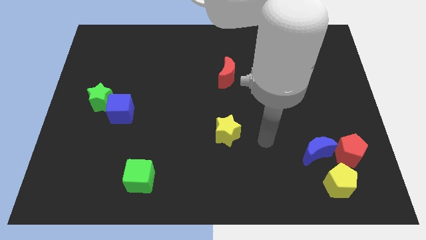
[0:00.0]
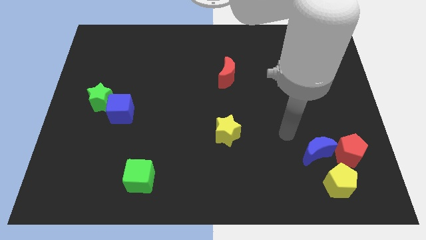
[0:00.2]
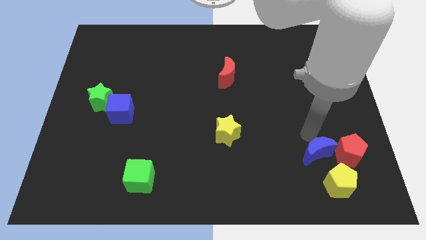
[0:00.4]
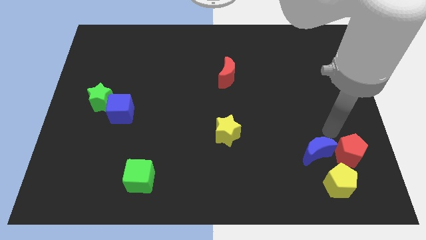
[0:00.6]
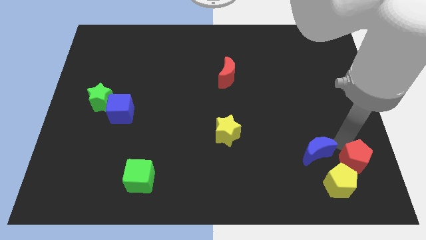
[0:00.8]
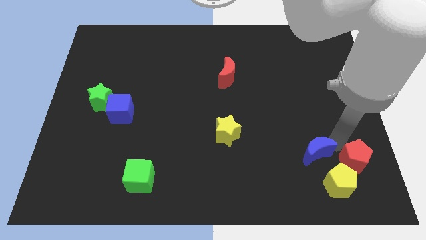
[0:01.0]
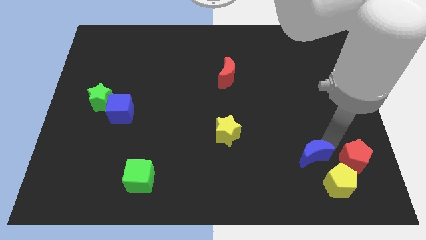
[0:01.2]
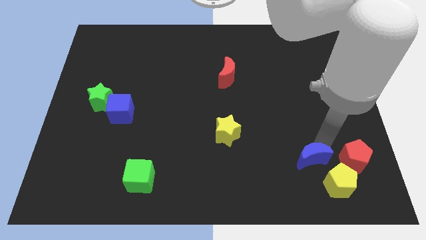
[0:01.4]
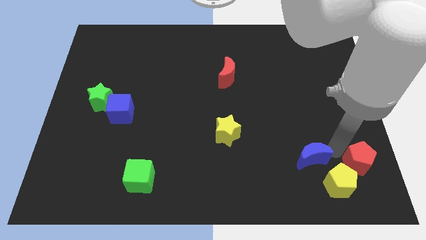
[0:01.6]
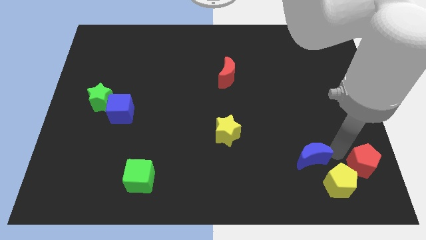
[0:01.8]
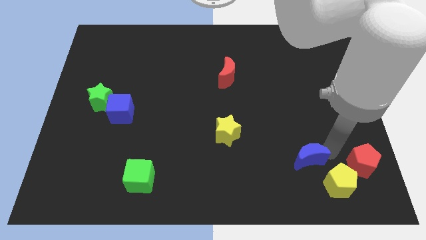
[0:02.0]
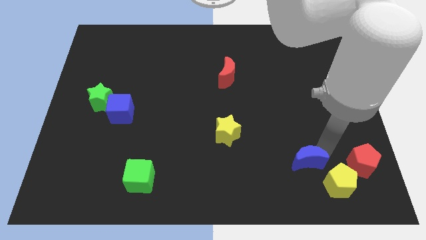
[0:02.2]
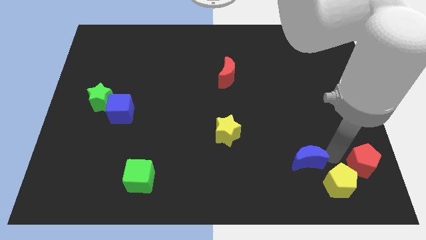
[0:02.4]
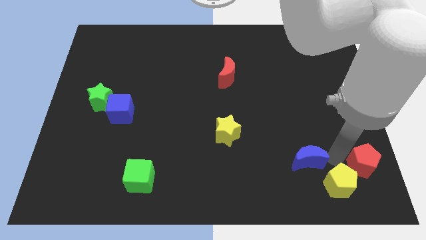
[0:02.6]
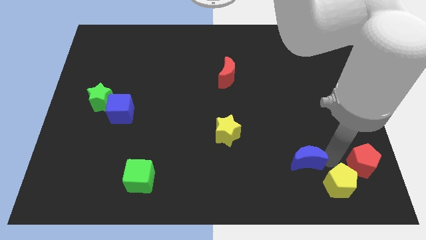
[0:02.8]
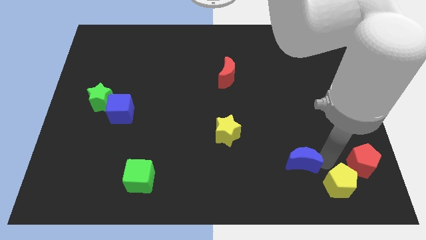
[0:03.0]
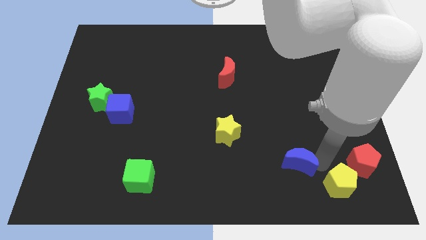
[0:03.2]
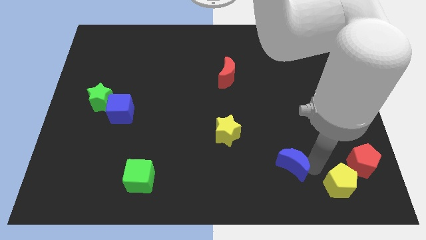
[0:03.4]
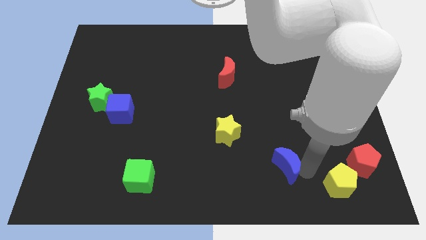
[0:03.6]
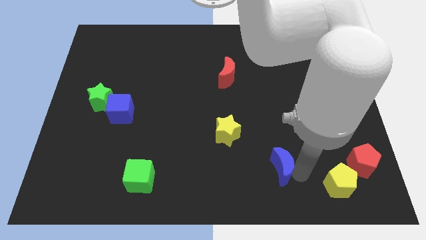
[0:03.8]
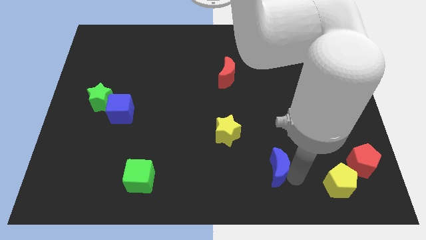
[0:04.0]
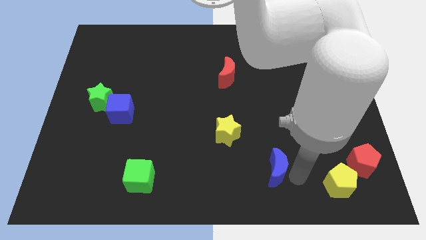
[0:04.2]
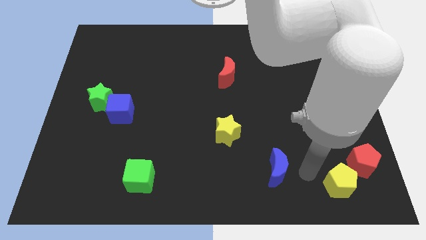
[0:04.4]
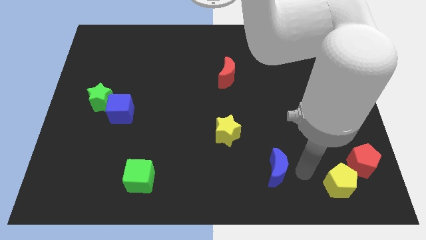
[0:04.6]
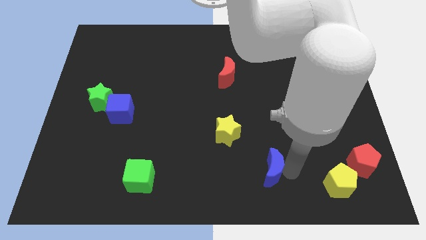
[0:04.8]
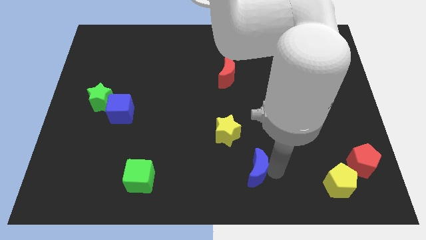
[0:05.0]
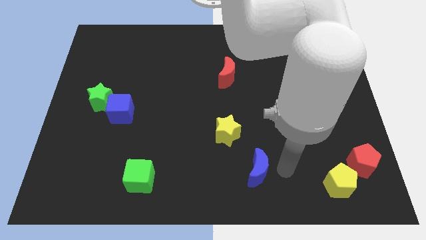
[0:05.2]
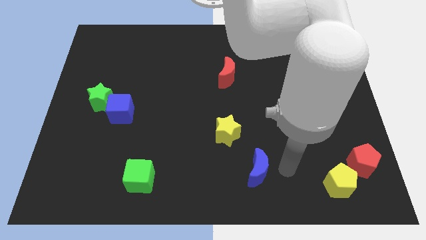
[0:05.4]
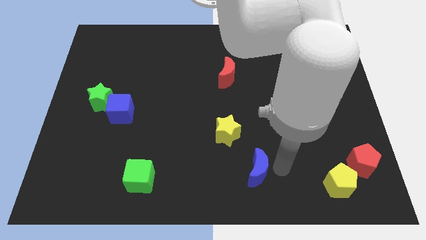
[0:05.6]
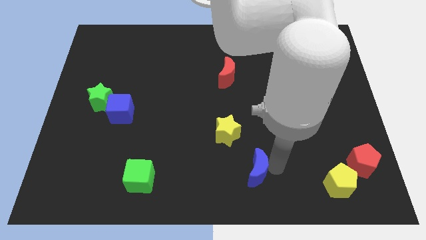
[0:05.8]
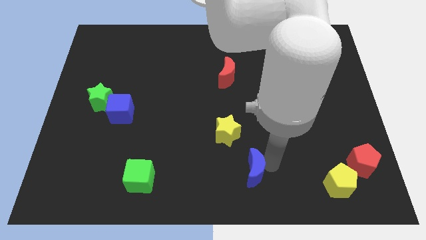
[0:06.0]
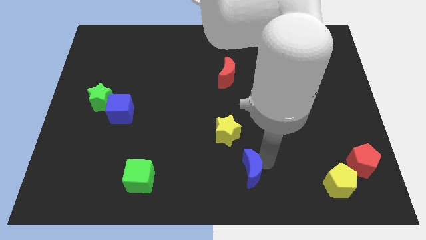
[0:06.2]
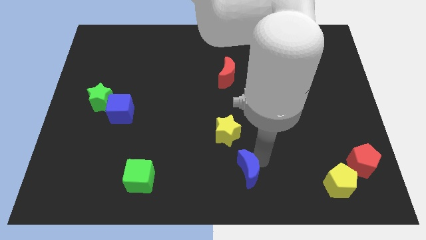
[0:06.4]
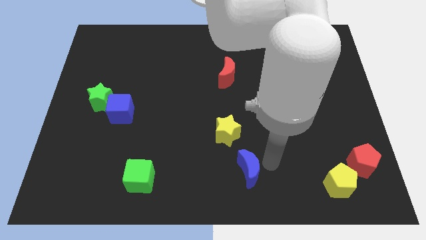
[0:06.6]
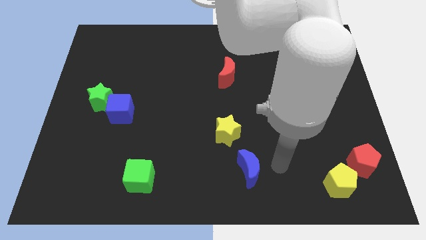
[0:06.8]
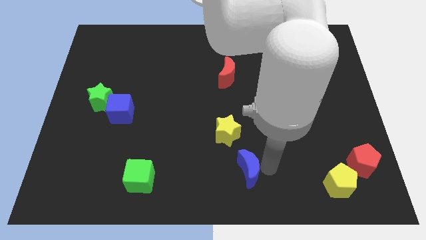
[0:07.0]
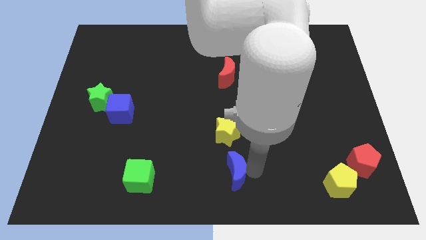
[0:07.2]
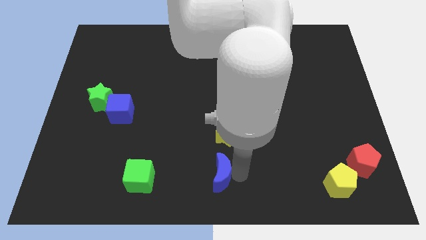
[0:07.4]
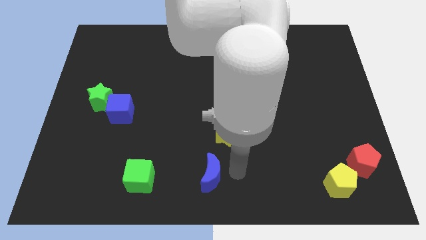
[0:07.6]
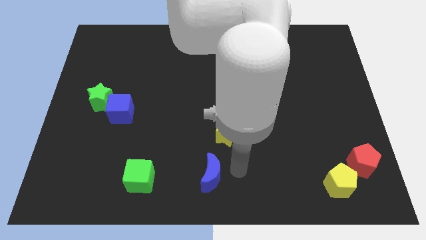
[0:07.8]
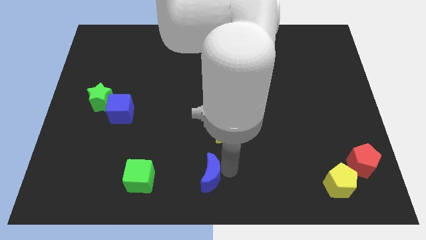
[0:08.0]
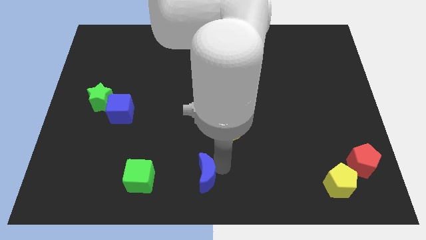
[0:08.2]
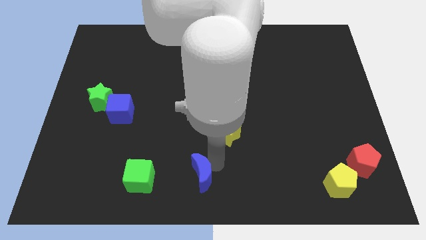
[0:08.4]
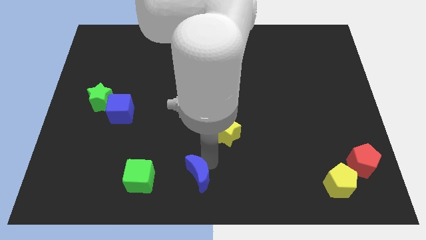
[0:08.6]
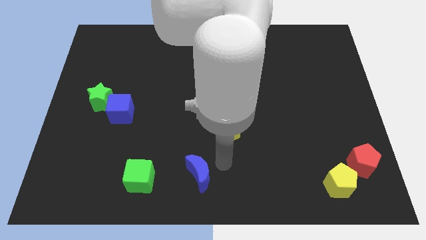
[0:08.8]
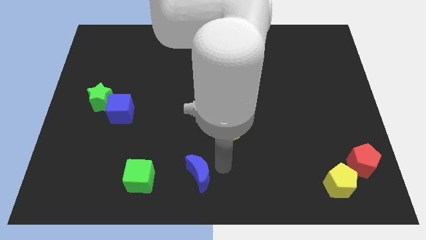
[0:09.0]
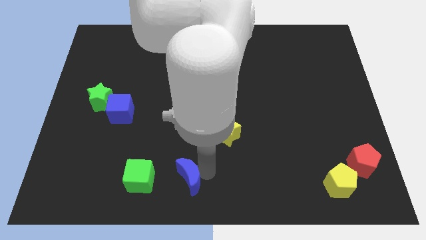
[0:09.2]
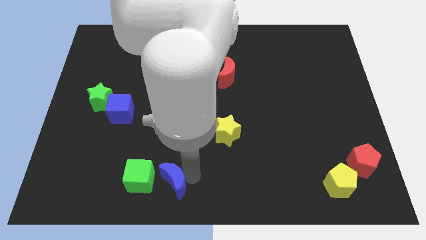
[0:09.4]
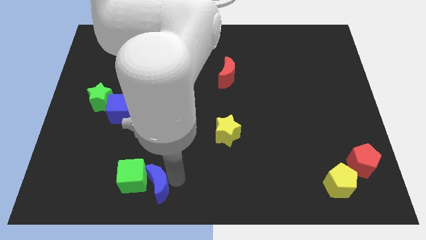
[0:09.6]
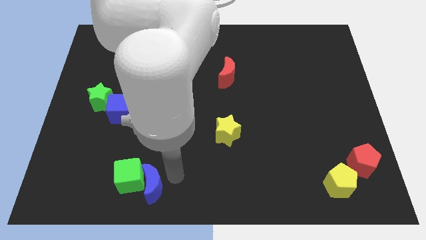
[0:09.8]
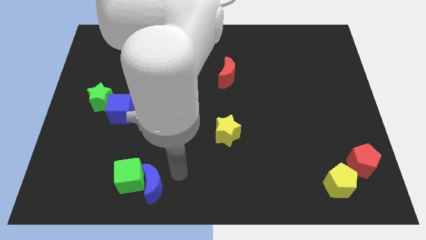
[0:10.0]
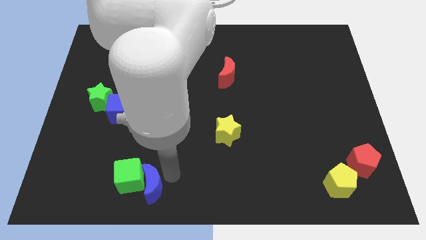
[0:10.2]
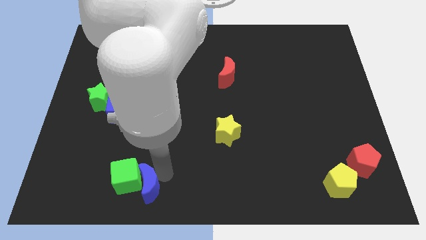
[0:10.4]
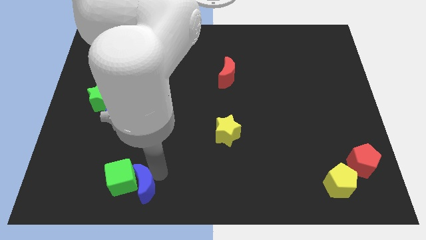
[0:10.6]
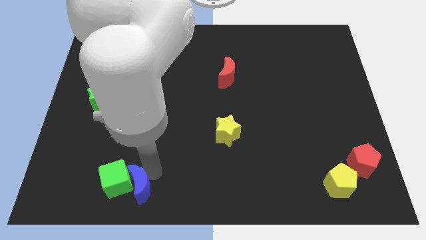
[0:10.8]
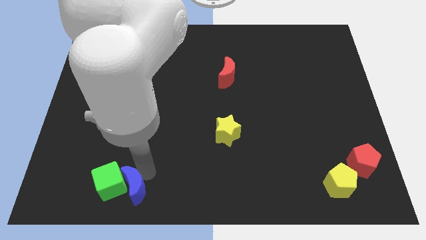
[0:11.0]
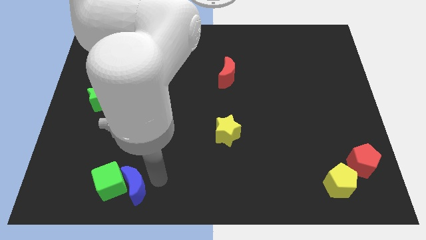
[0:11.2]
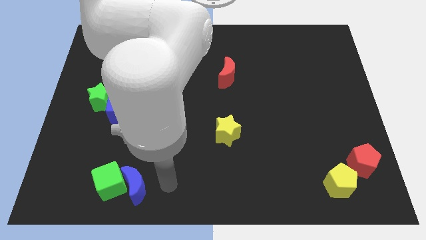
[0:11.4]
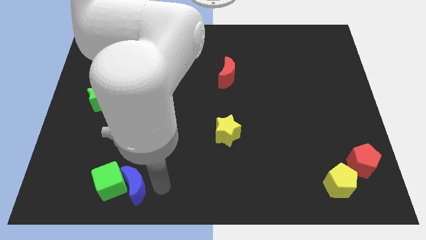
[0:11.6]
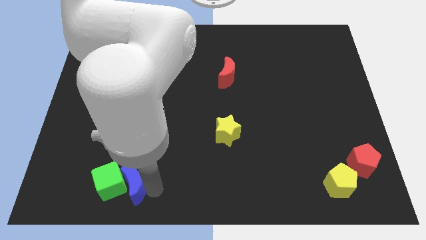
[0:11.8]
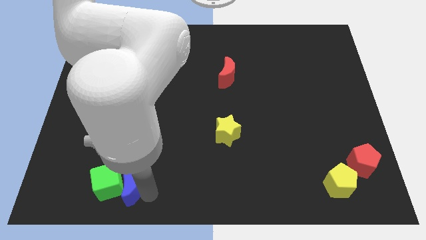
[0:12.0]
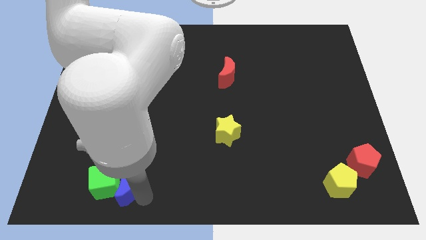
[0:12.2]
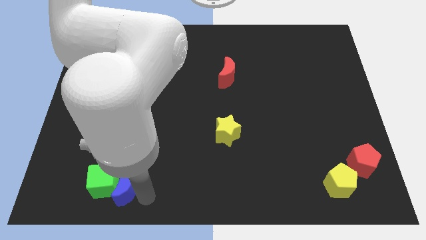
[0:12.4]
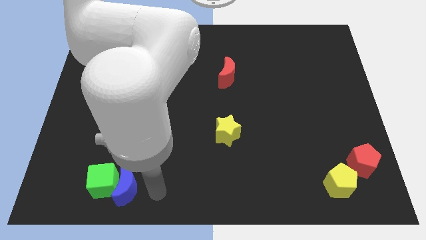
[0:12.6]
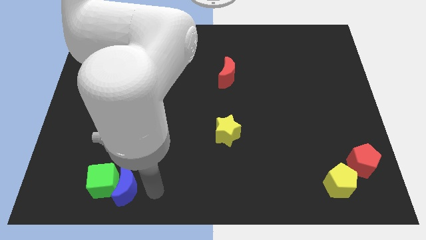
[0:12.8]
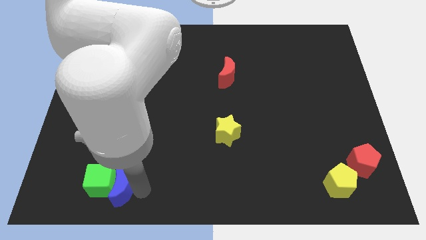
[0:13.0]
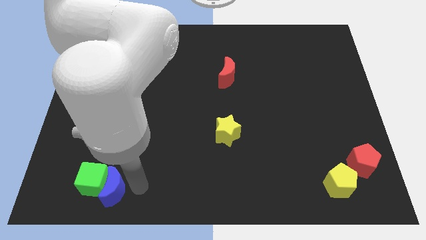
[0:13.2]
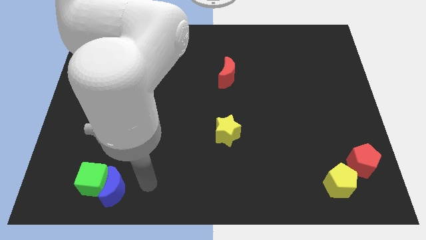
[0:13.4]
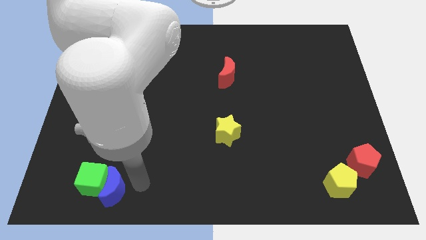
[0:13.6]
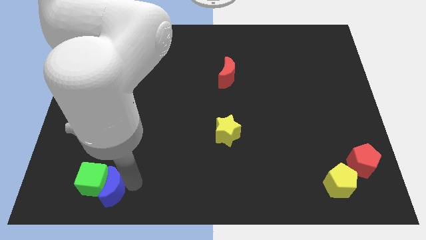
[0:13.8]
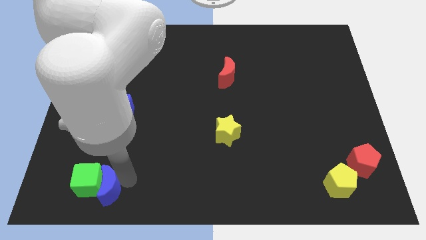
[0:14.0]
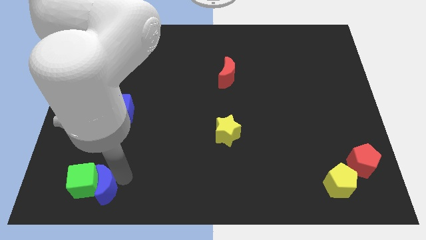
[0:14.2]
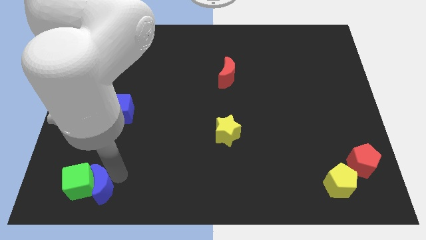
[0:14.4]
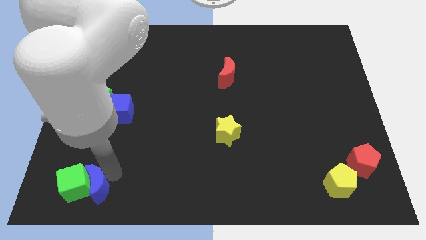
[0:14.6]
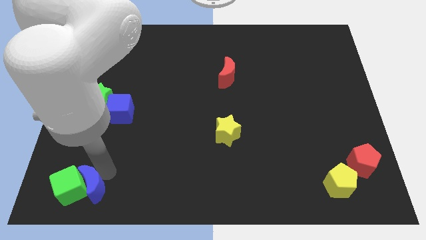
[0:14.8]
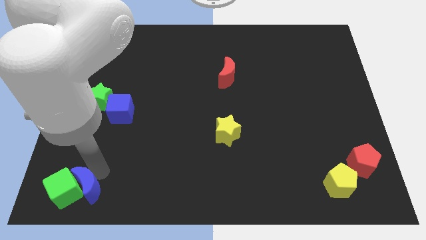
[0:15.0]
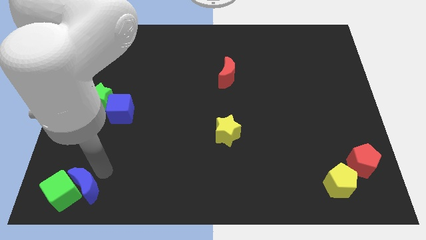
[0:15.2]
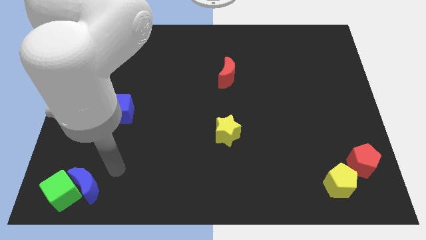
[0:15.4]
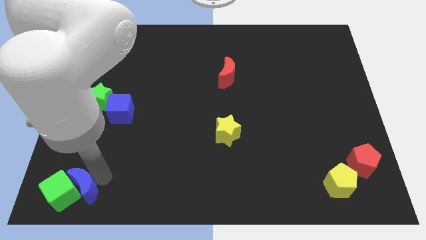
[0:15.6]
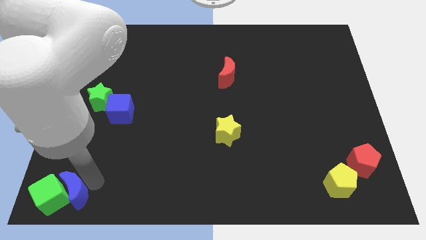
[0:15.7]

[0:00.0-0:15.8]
move the blue moon to the bottom left
